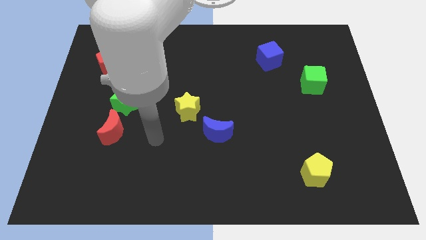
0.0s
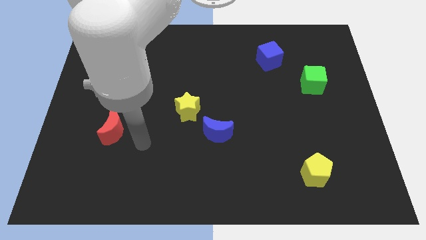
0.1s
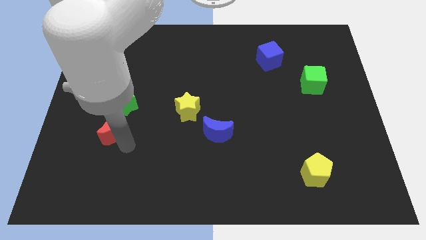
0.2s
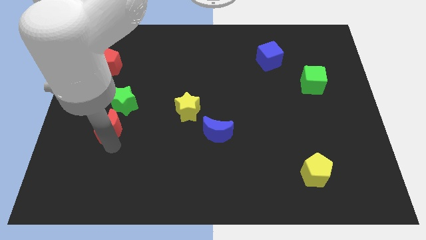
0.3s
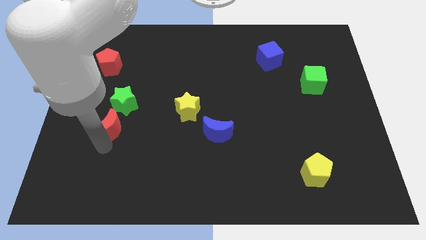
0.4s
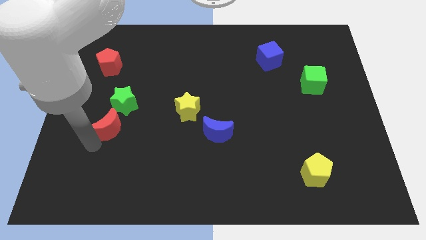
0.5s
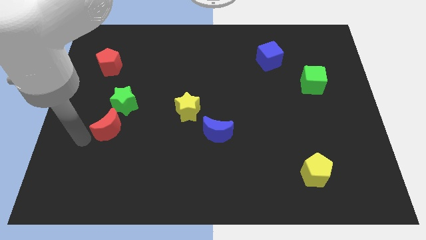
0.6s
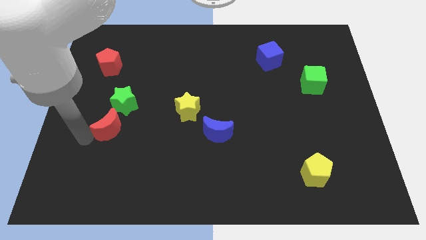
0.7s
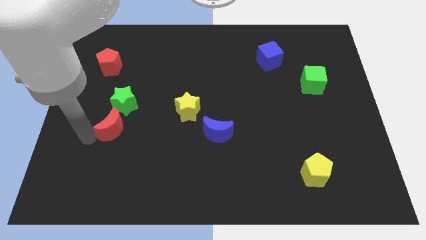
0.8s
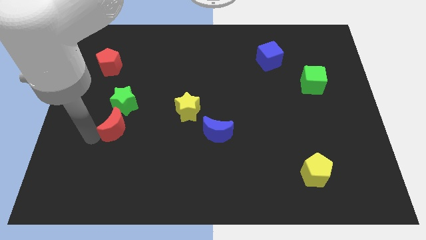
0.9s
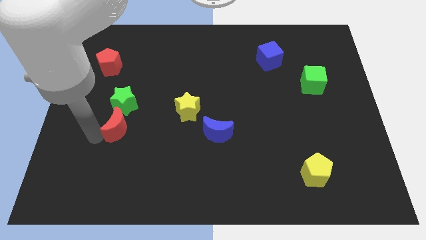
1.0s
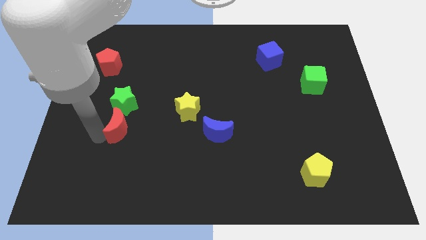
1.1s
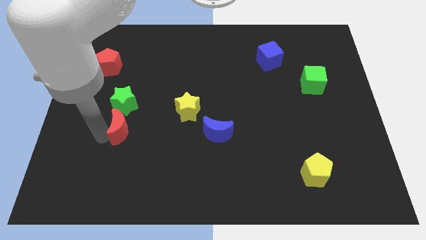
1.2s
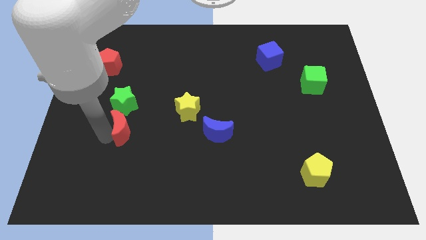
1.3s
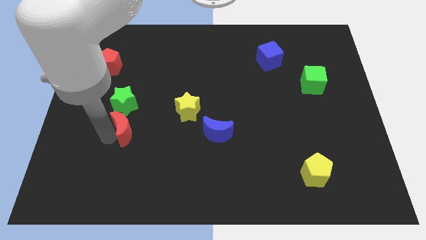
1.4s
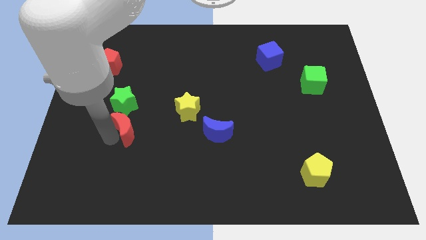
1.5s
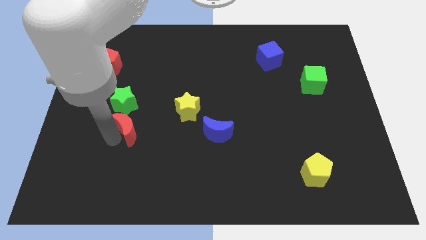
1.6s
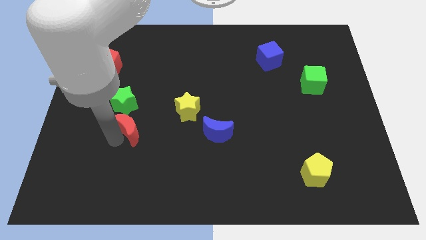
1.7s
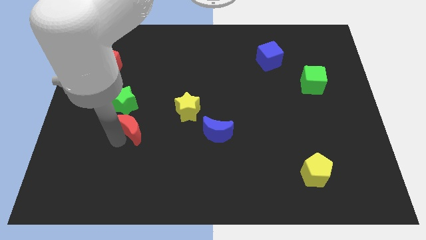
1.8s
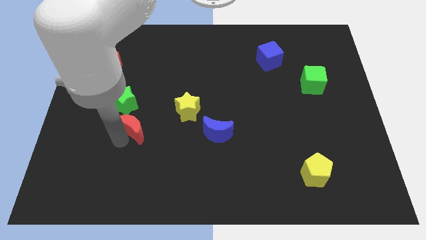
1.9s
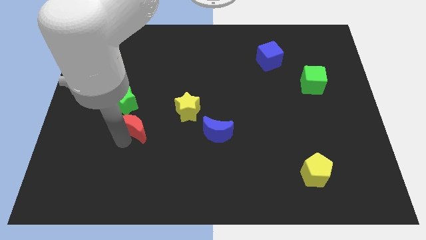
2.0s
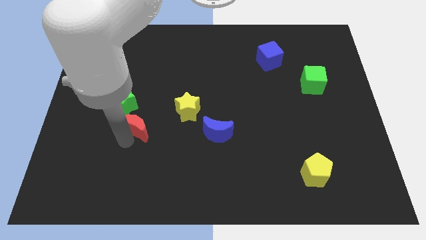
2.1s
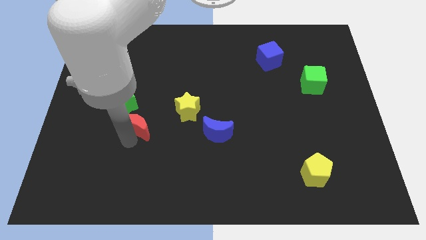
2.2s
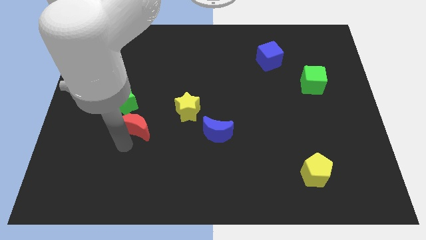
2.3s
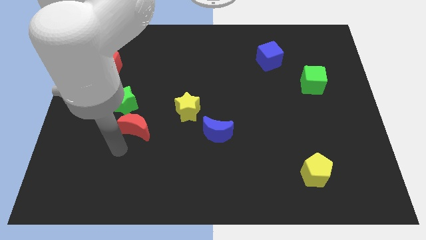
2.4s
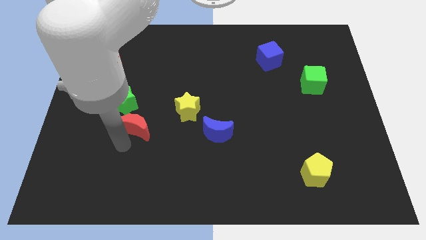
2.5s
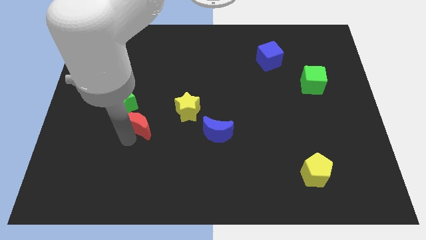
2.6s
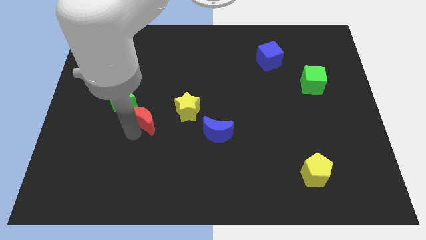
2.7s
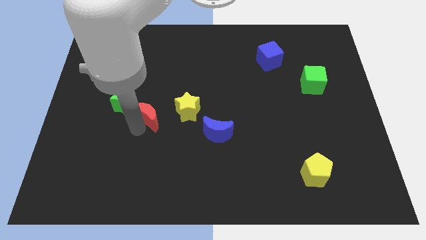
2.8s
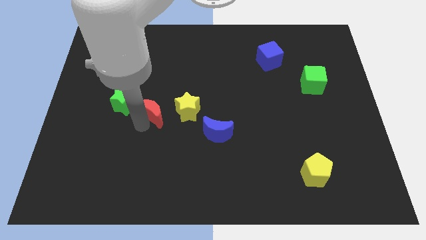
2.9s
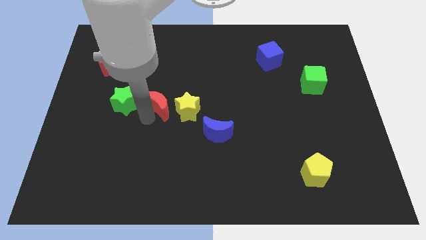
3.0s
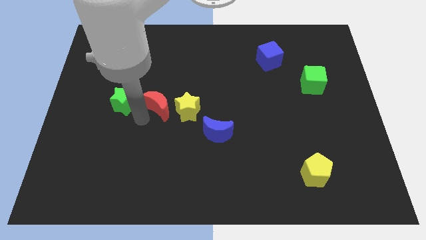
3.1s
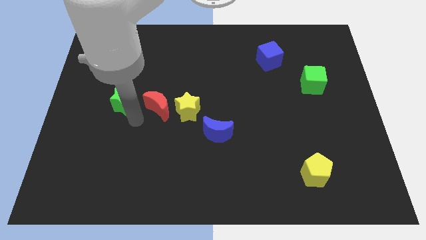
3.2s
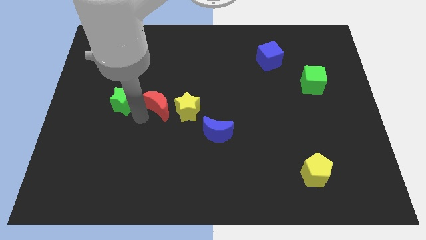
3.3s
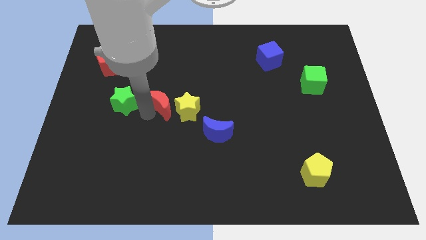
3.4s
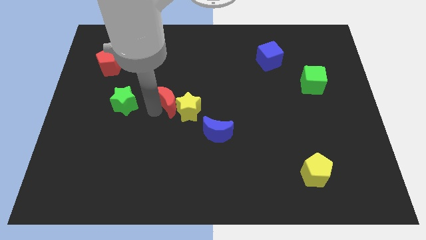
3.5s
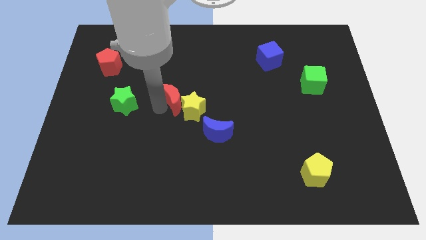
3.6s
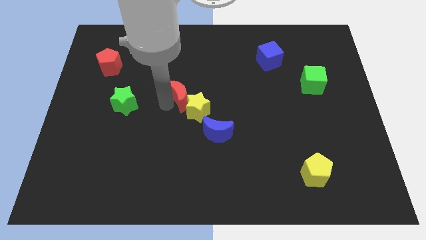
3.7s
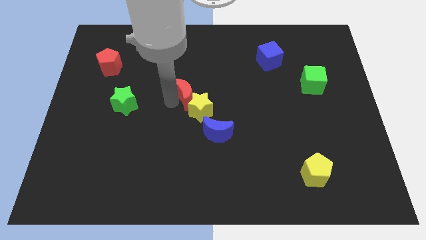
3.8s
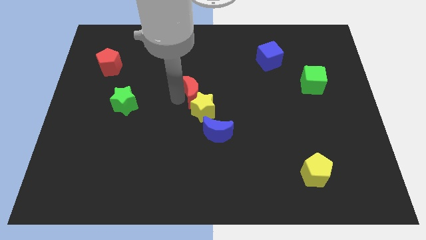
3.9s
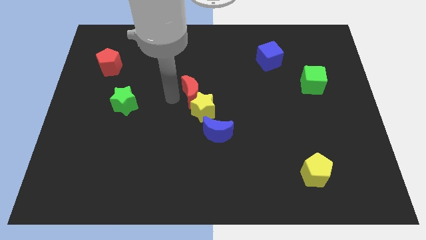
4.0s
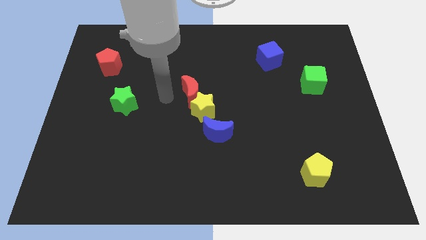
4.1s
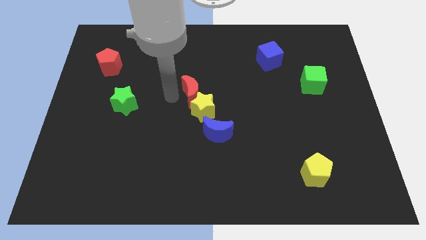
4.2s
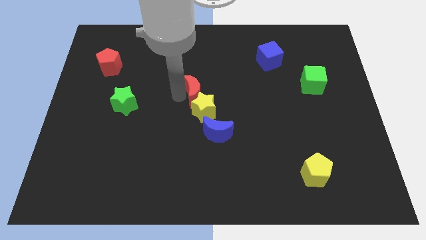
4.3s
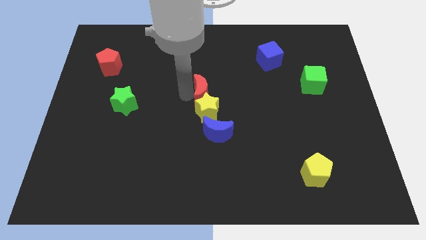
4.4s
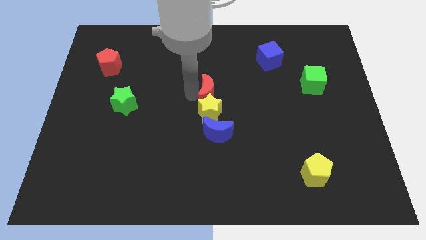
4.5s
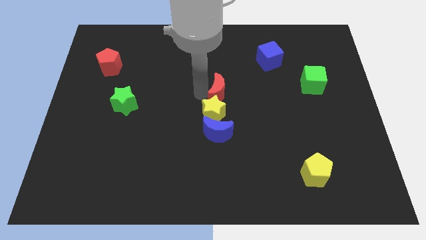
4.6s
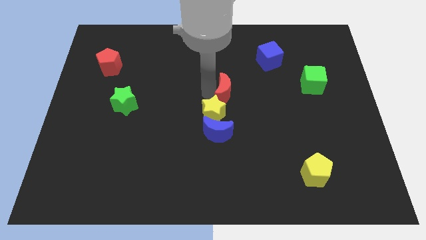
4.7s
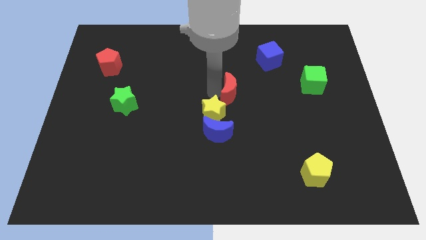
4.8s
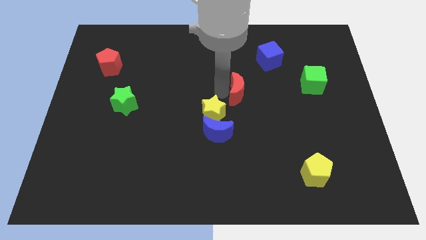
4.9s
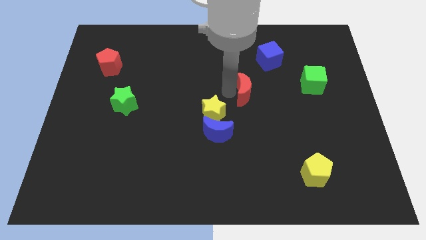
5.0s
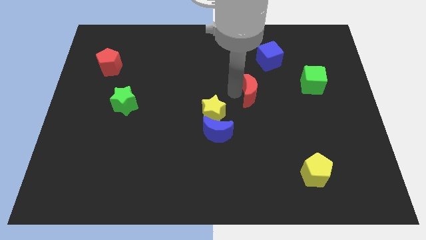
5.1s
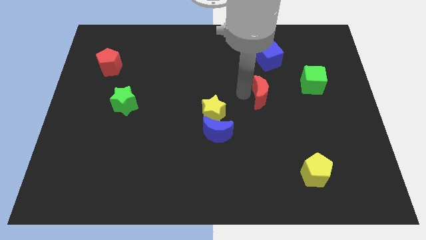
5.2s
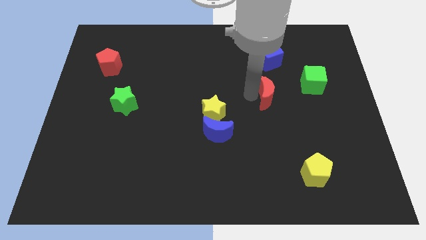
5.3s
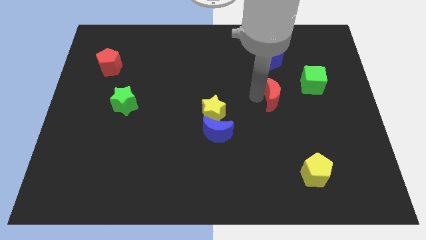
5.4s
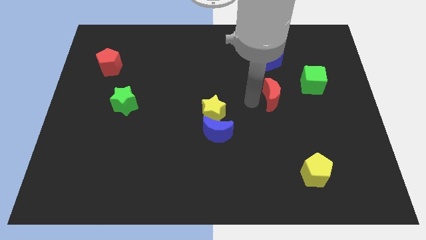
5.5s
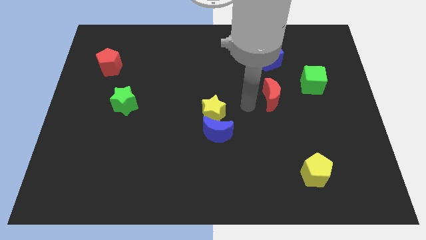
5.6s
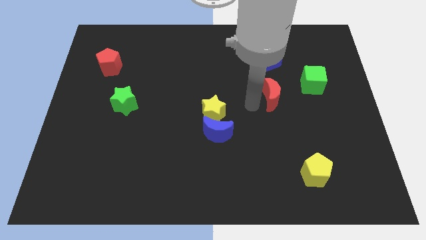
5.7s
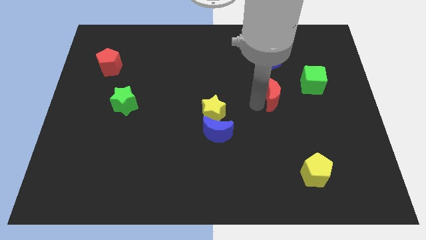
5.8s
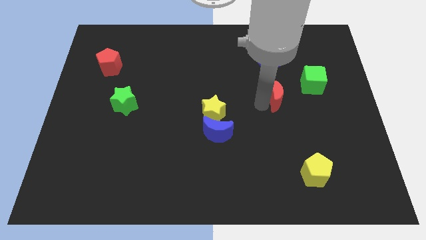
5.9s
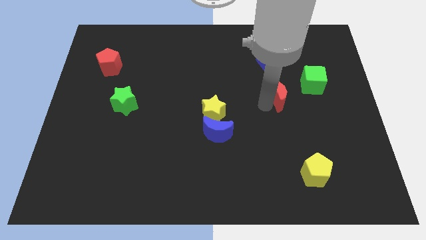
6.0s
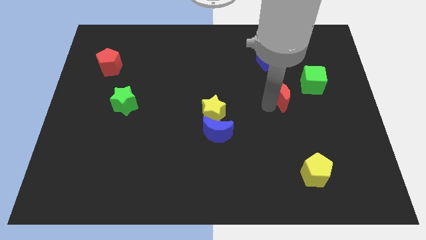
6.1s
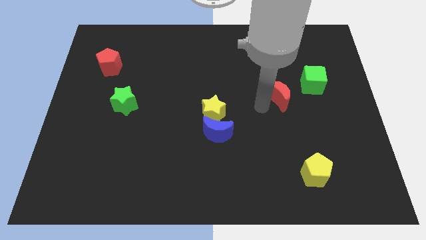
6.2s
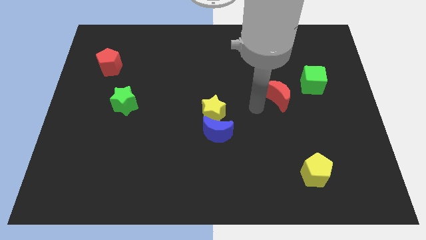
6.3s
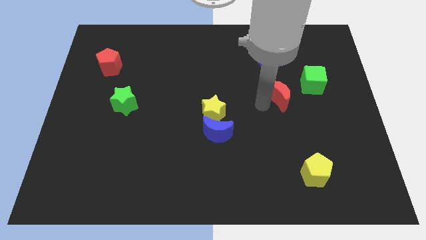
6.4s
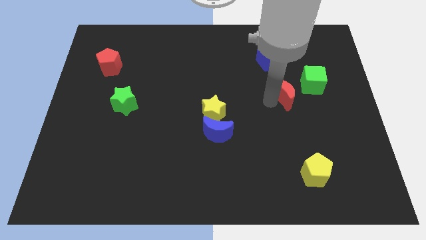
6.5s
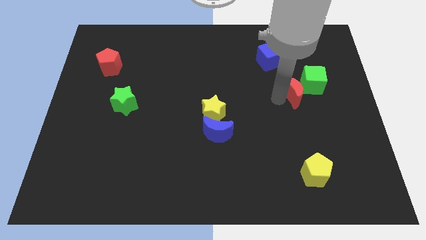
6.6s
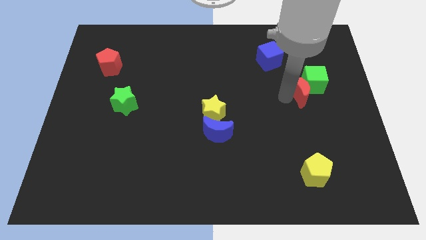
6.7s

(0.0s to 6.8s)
slide the red moon towards the green cube
